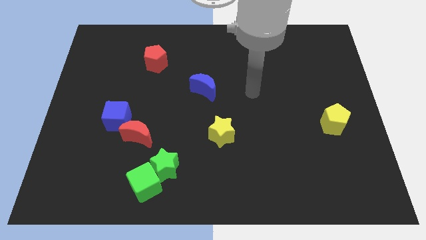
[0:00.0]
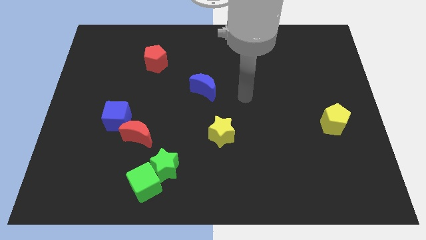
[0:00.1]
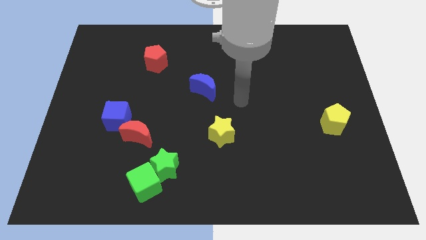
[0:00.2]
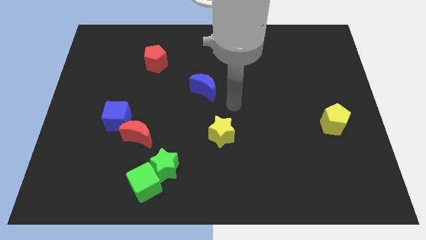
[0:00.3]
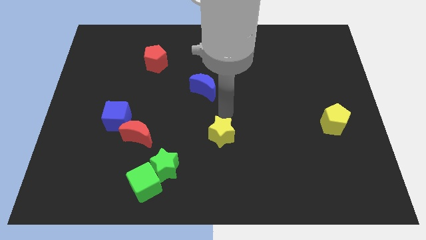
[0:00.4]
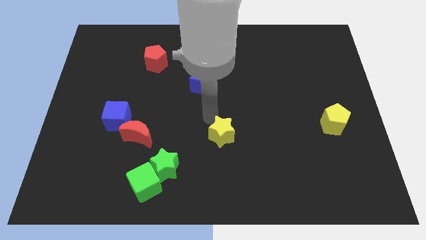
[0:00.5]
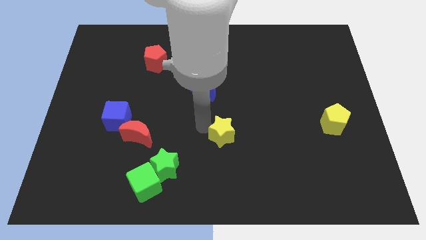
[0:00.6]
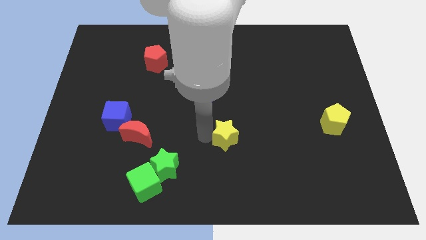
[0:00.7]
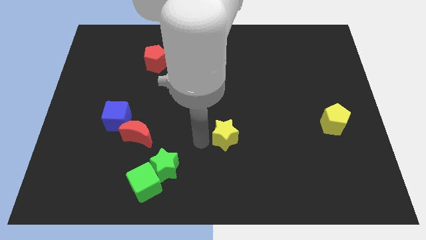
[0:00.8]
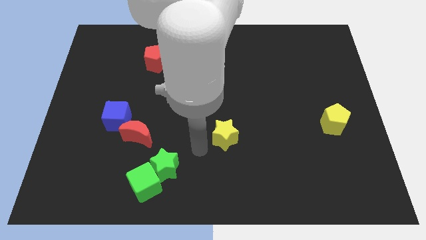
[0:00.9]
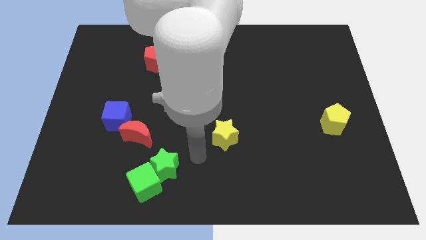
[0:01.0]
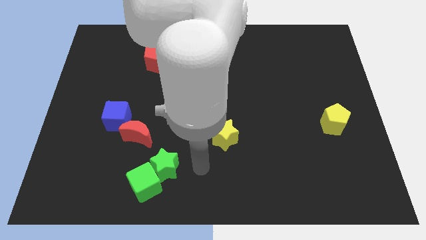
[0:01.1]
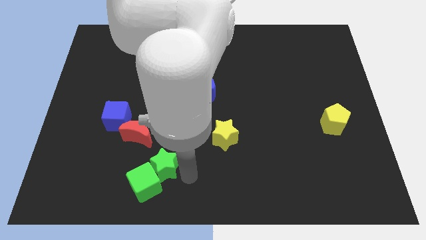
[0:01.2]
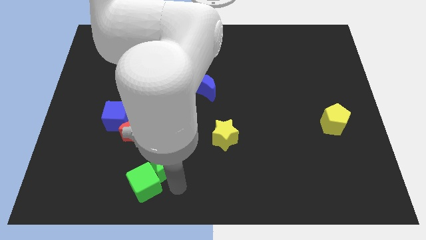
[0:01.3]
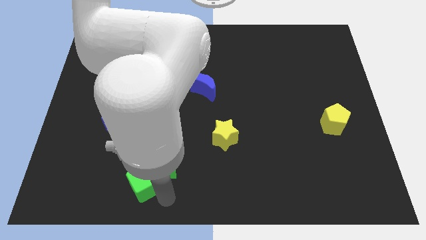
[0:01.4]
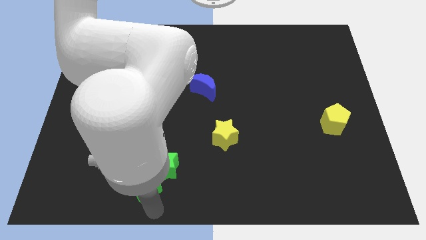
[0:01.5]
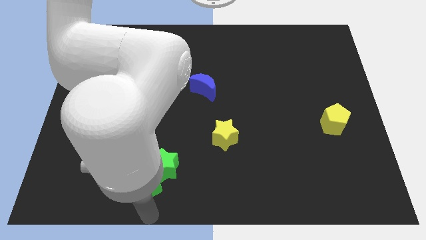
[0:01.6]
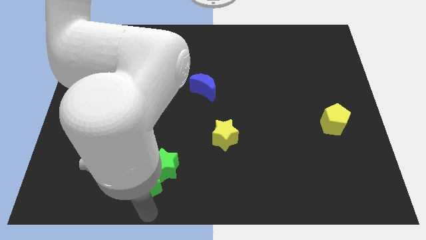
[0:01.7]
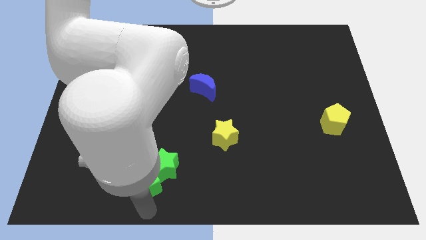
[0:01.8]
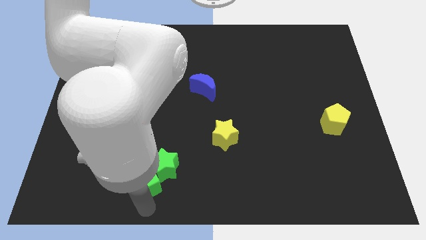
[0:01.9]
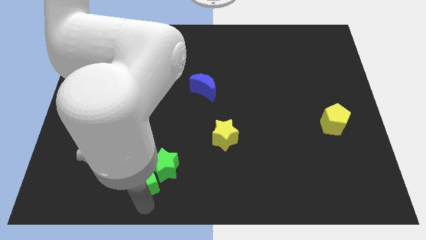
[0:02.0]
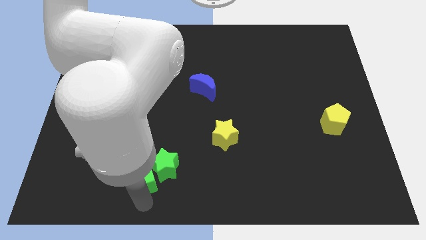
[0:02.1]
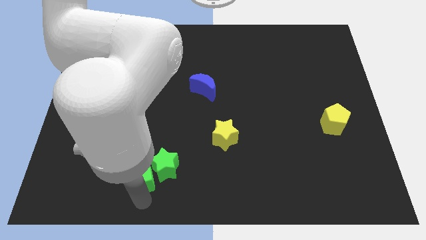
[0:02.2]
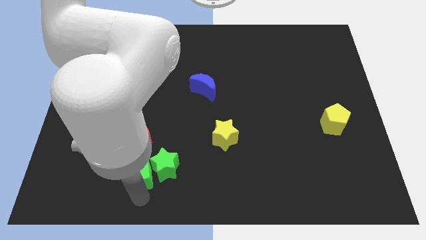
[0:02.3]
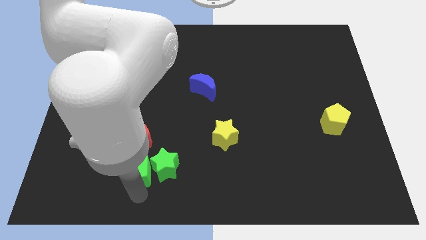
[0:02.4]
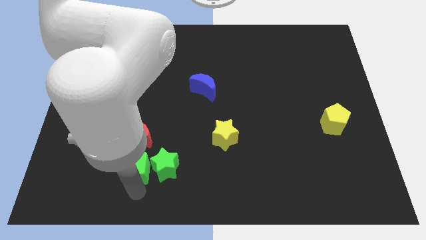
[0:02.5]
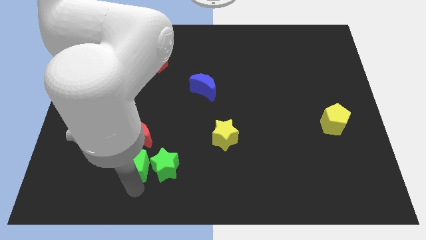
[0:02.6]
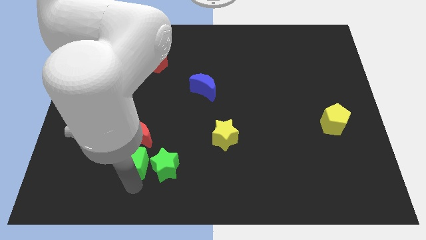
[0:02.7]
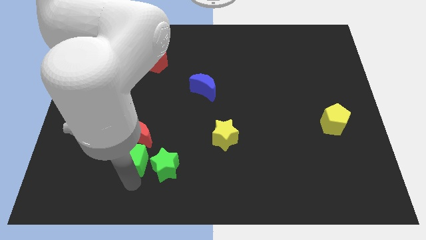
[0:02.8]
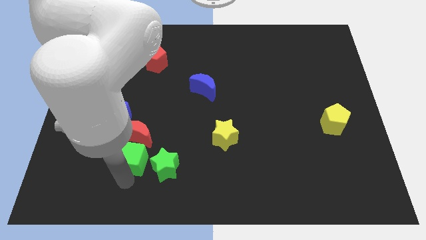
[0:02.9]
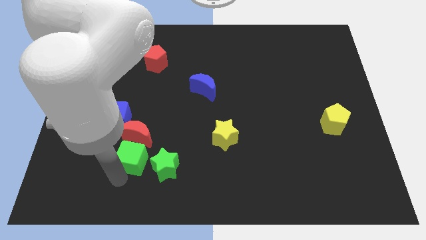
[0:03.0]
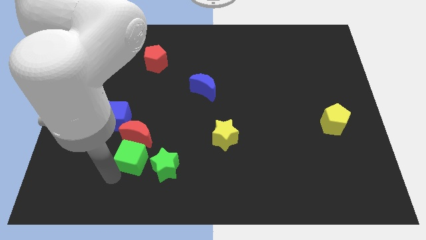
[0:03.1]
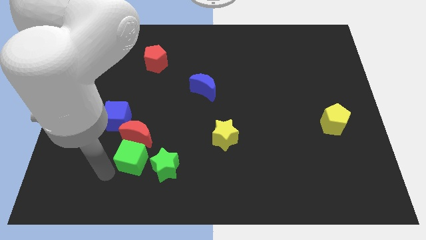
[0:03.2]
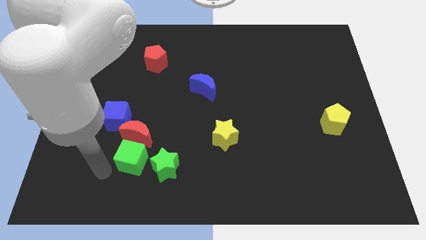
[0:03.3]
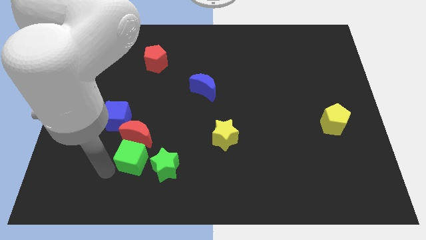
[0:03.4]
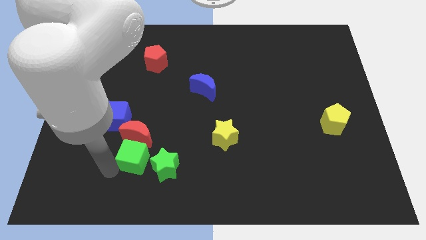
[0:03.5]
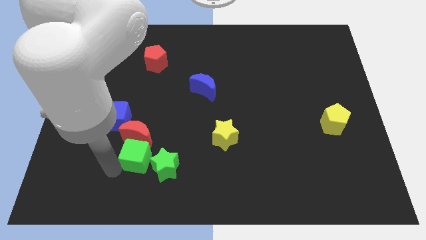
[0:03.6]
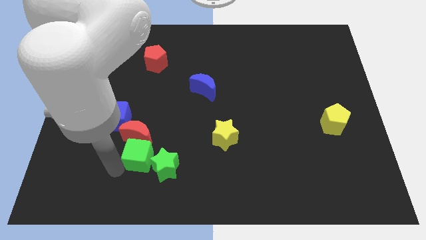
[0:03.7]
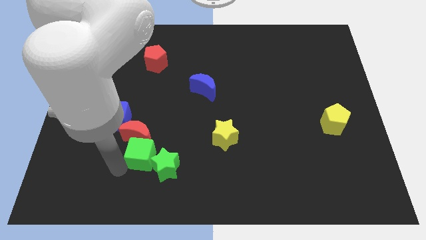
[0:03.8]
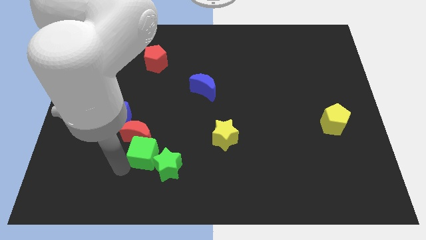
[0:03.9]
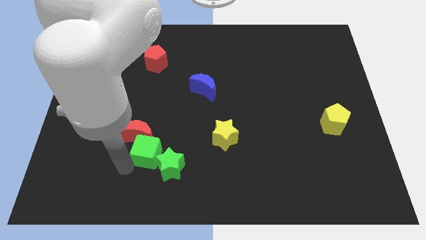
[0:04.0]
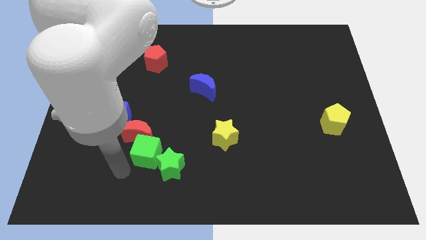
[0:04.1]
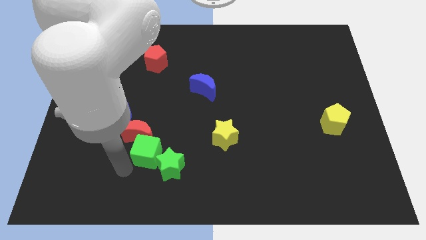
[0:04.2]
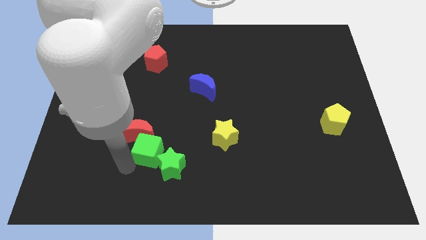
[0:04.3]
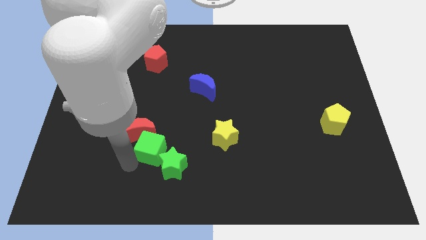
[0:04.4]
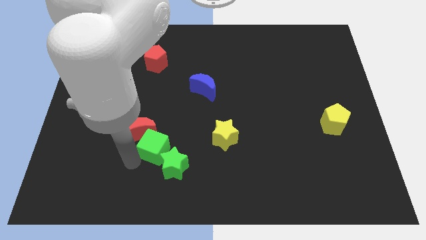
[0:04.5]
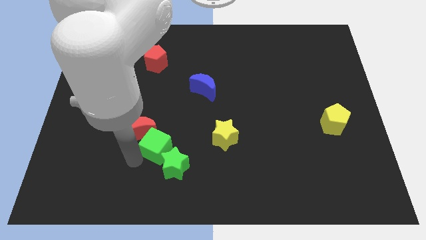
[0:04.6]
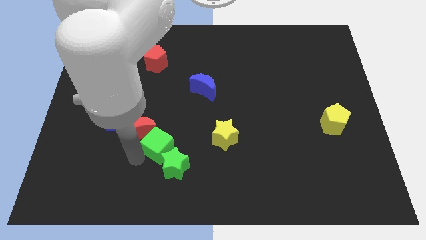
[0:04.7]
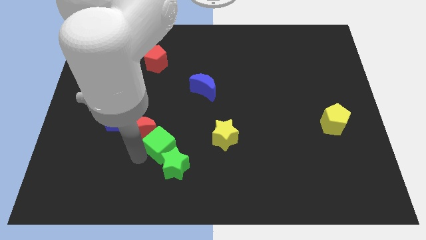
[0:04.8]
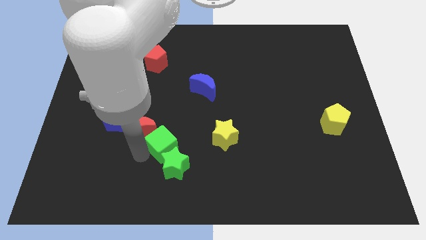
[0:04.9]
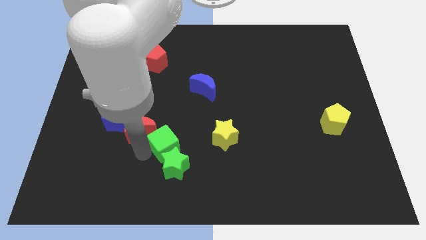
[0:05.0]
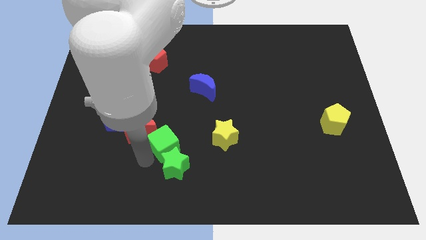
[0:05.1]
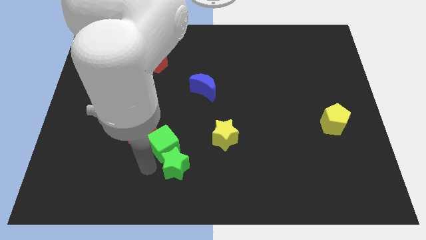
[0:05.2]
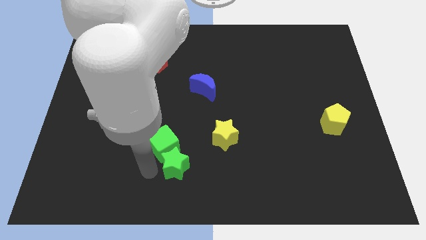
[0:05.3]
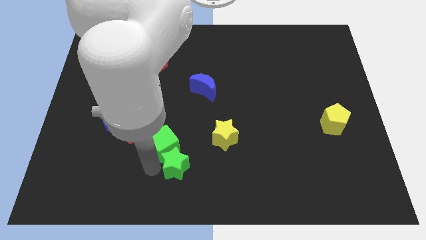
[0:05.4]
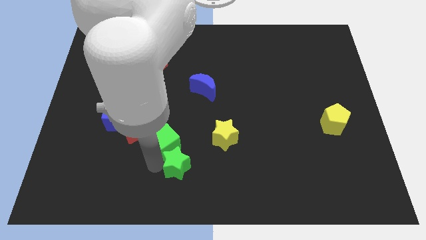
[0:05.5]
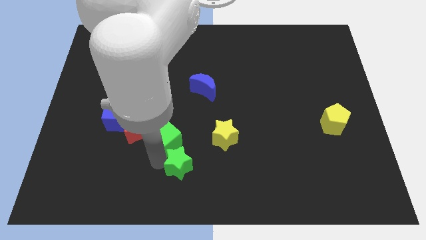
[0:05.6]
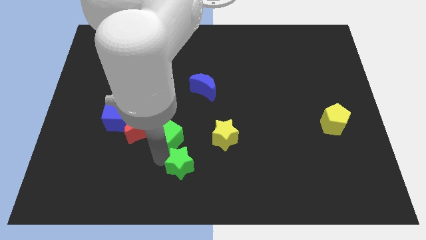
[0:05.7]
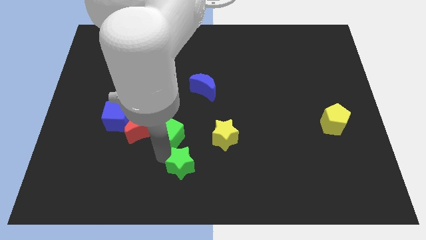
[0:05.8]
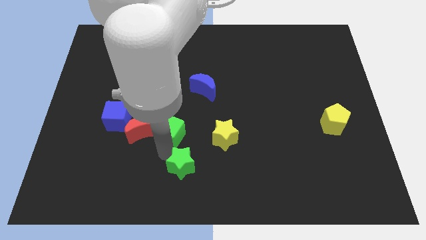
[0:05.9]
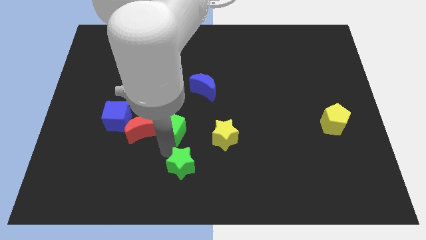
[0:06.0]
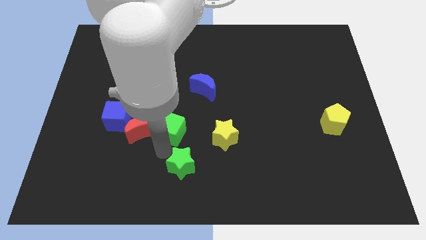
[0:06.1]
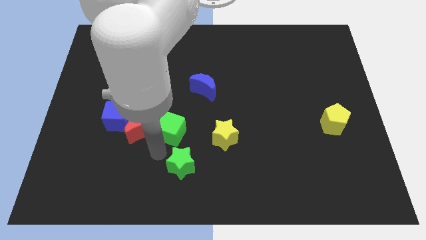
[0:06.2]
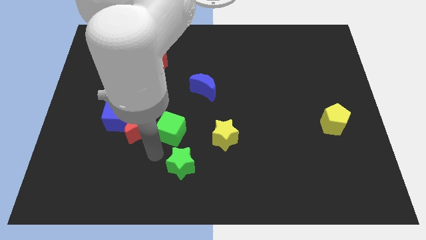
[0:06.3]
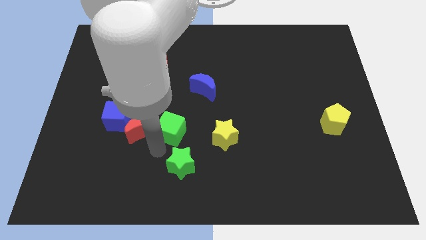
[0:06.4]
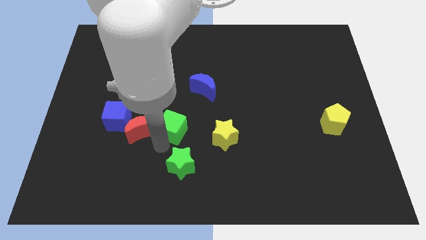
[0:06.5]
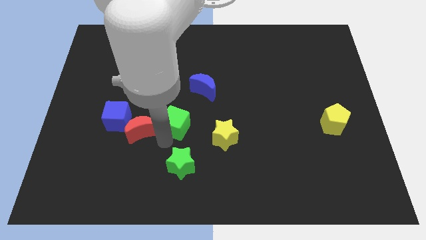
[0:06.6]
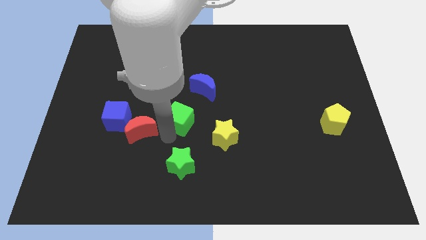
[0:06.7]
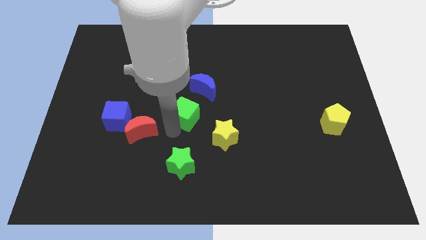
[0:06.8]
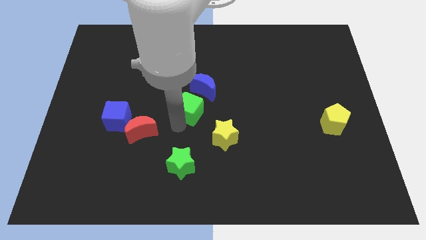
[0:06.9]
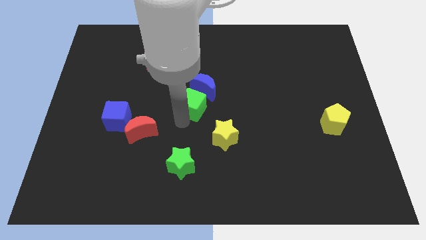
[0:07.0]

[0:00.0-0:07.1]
move the green cube close to the blue moon

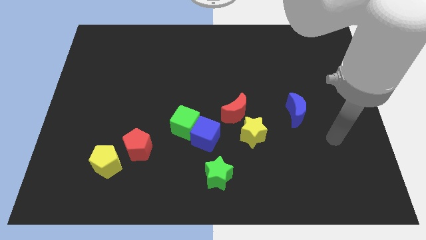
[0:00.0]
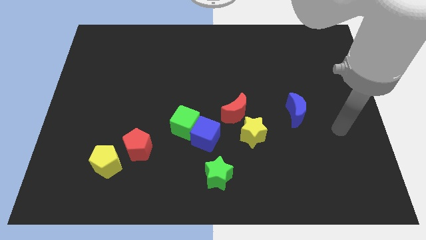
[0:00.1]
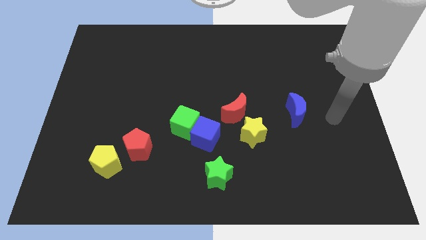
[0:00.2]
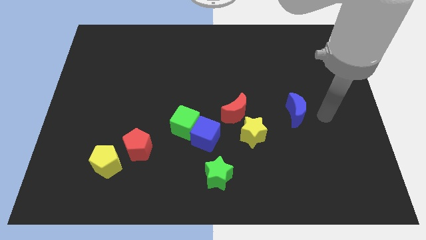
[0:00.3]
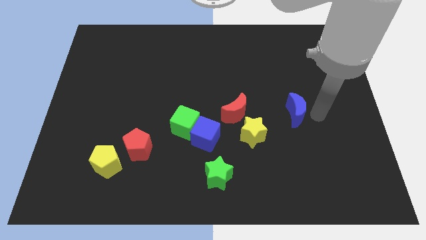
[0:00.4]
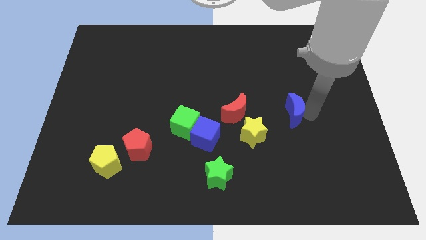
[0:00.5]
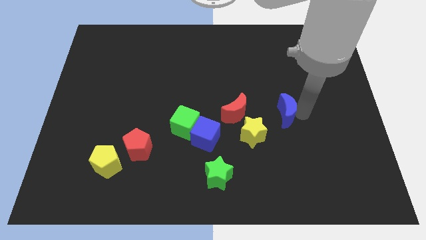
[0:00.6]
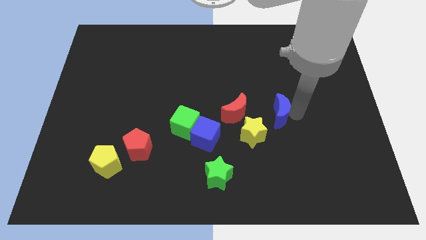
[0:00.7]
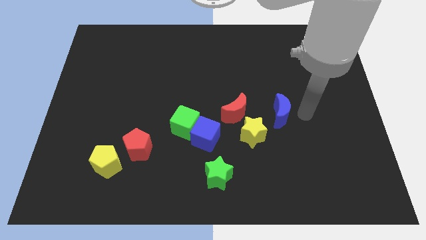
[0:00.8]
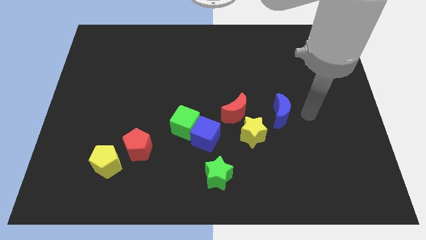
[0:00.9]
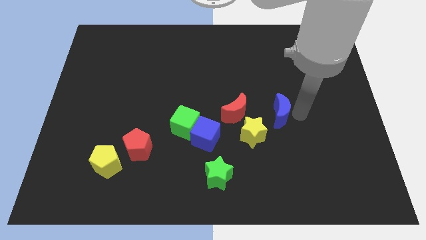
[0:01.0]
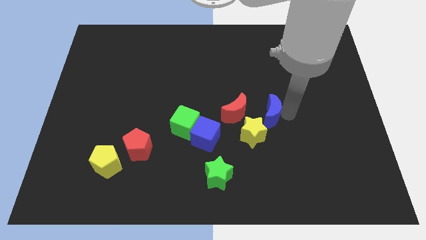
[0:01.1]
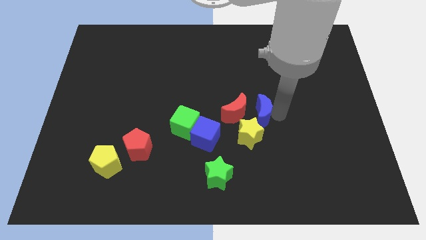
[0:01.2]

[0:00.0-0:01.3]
slide the blue moon towards the red moon
